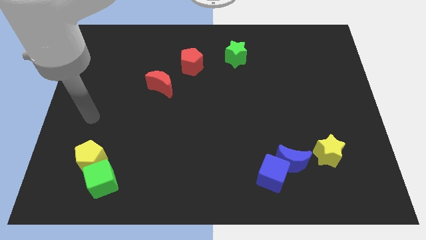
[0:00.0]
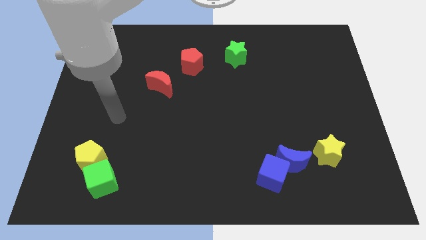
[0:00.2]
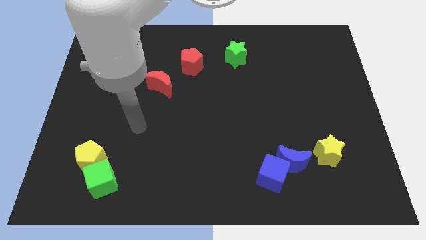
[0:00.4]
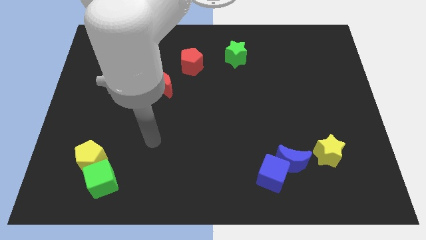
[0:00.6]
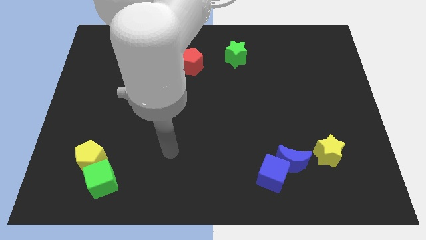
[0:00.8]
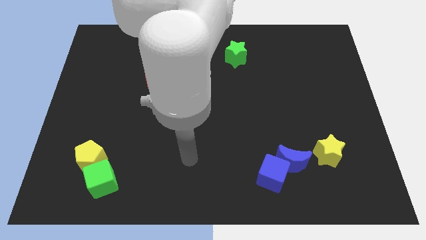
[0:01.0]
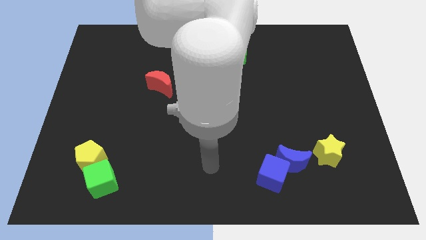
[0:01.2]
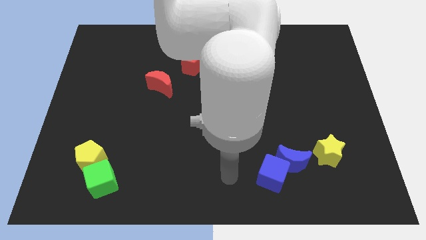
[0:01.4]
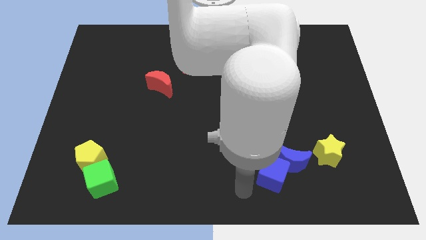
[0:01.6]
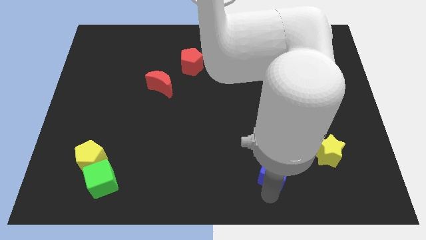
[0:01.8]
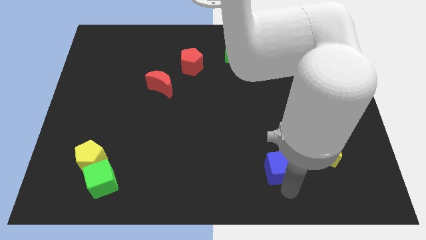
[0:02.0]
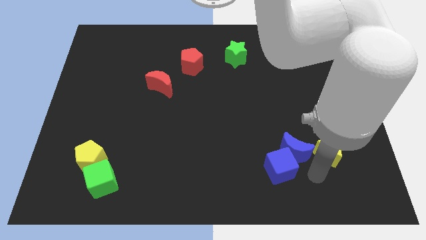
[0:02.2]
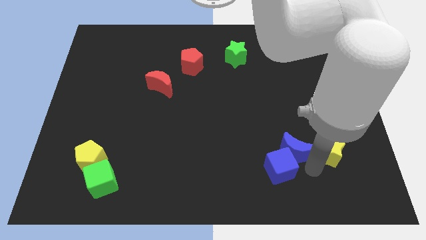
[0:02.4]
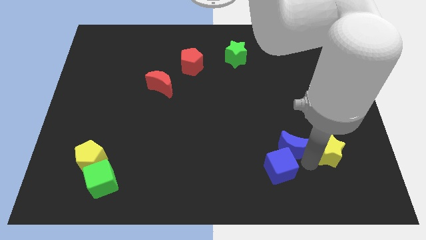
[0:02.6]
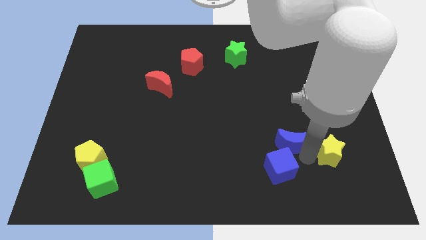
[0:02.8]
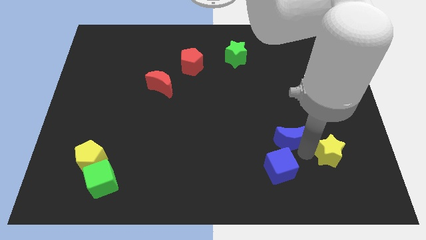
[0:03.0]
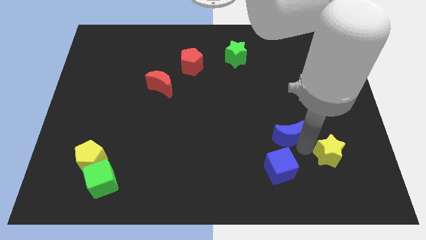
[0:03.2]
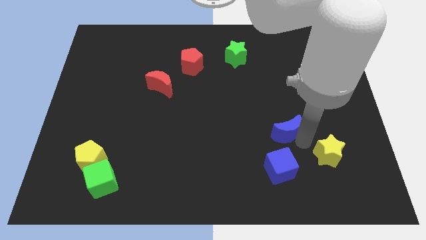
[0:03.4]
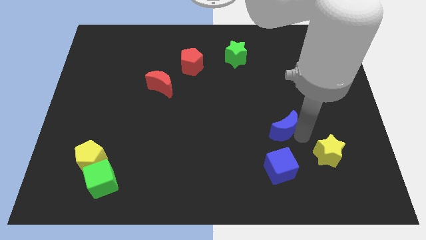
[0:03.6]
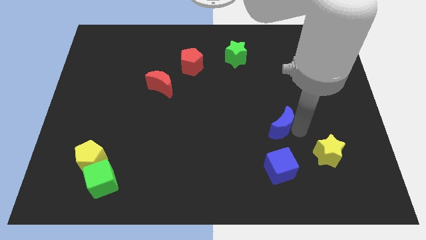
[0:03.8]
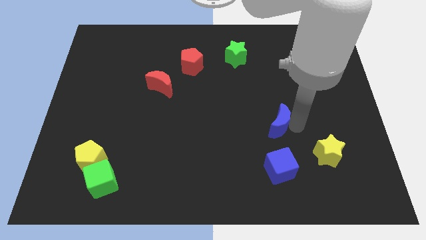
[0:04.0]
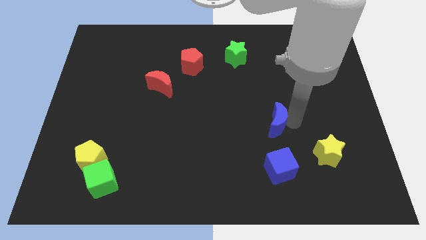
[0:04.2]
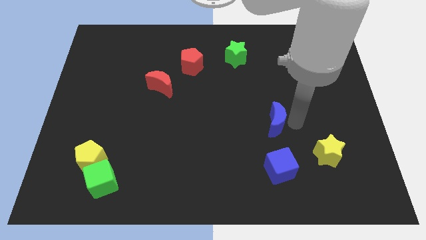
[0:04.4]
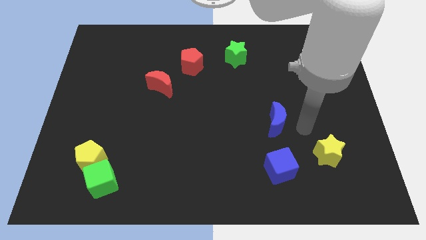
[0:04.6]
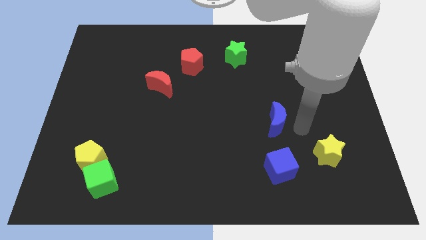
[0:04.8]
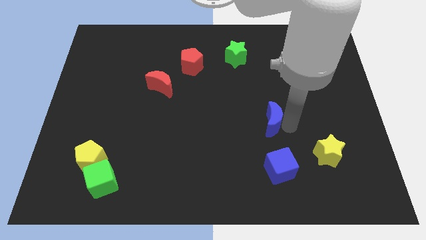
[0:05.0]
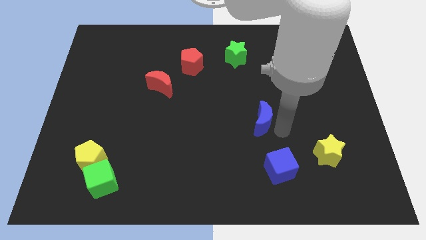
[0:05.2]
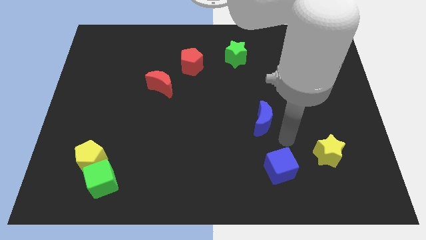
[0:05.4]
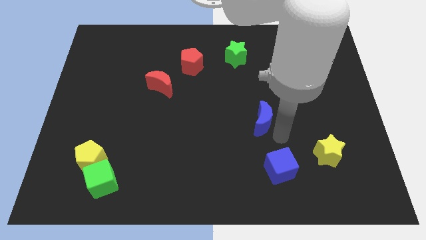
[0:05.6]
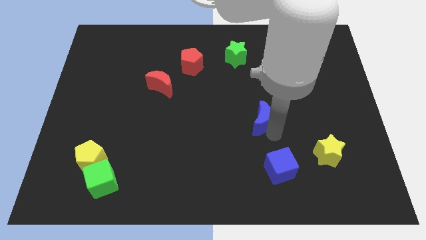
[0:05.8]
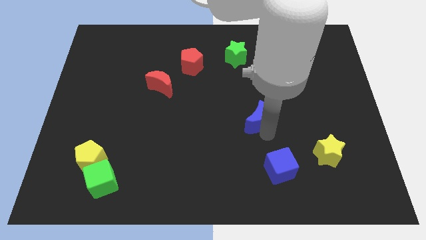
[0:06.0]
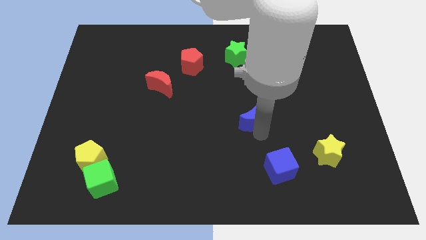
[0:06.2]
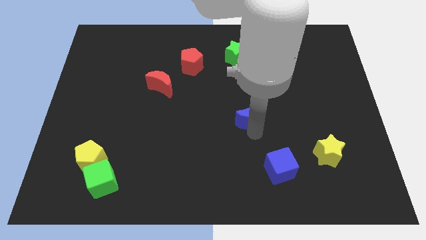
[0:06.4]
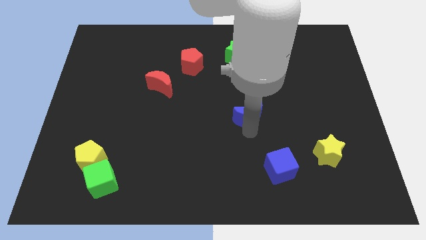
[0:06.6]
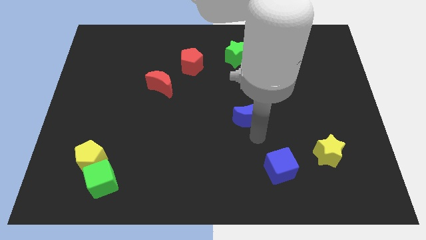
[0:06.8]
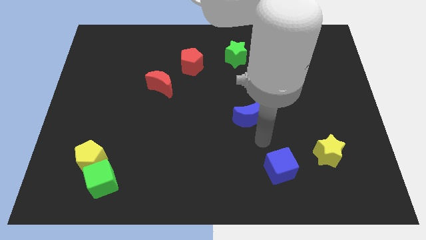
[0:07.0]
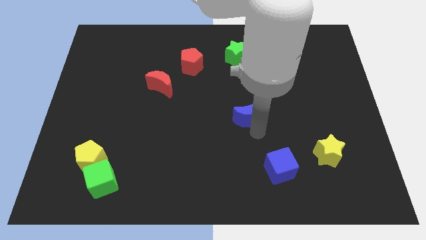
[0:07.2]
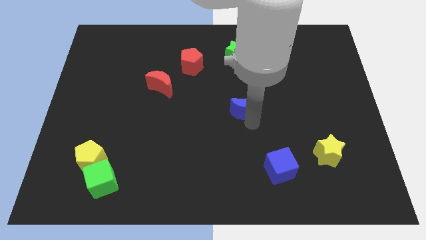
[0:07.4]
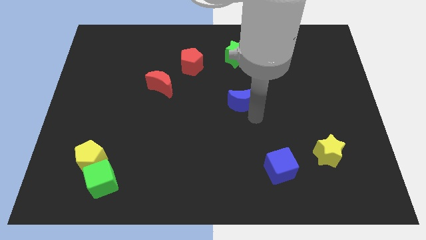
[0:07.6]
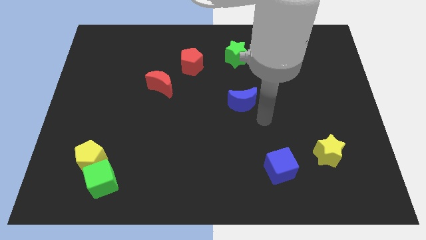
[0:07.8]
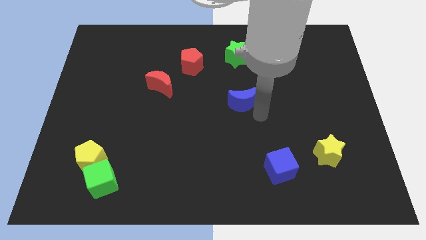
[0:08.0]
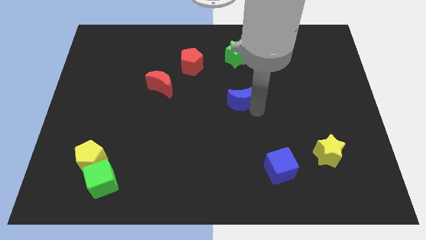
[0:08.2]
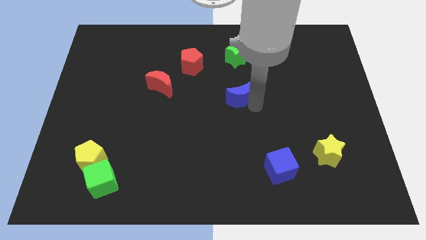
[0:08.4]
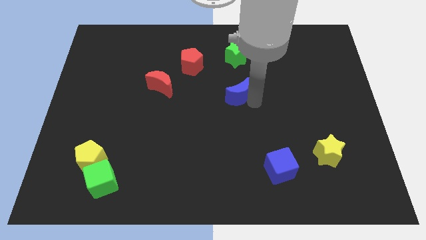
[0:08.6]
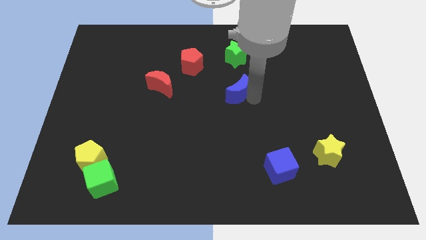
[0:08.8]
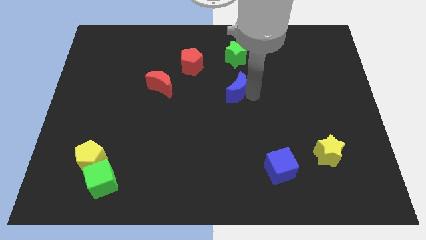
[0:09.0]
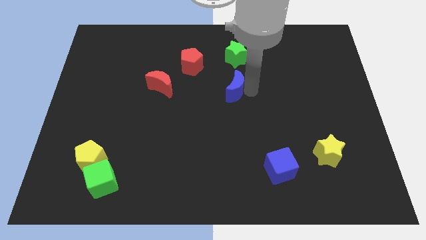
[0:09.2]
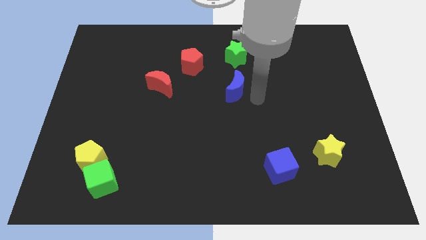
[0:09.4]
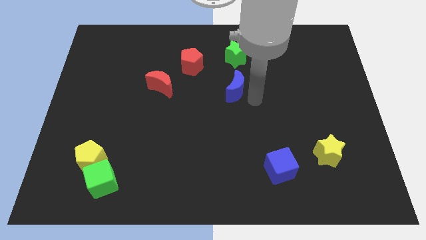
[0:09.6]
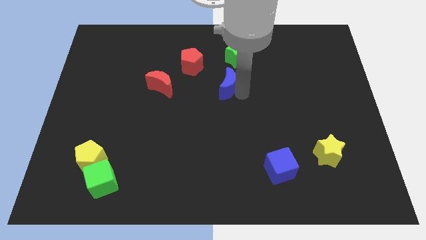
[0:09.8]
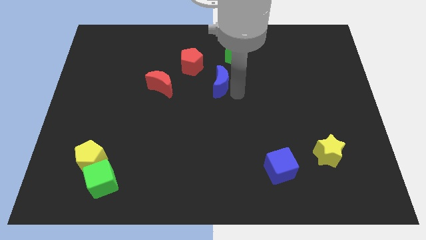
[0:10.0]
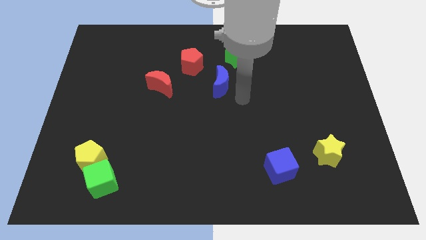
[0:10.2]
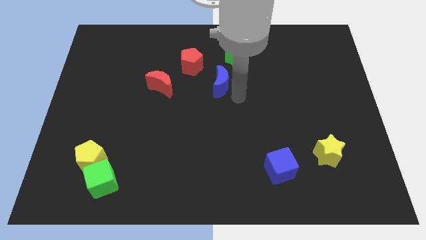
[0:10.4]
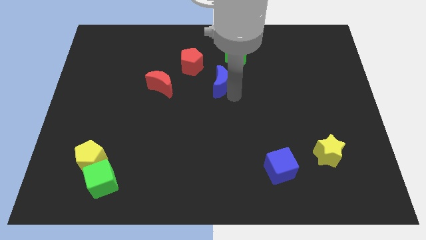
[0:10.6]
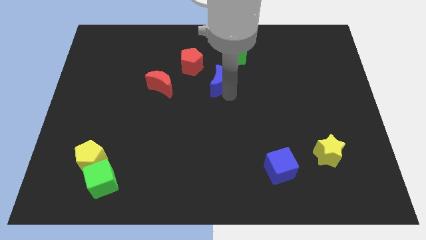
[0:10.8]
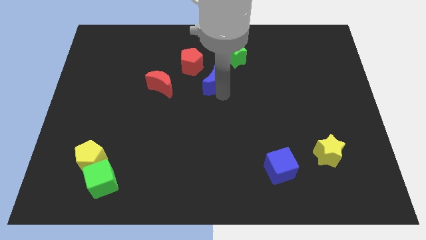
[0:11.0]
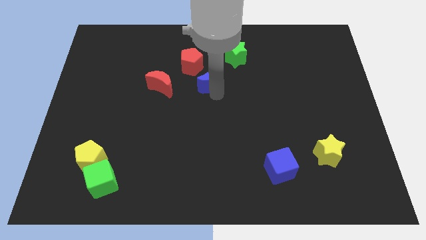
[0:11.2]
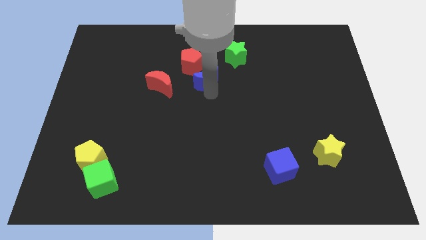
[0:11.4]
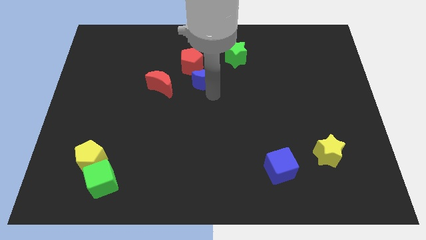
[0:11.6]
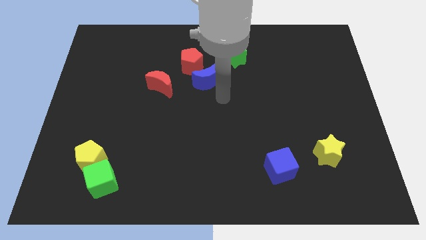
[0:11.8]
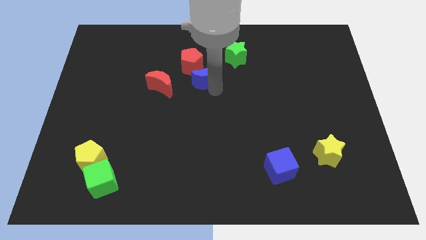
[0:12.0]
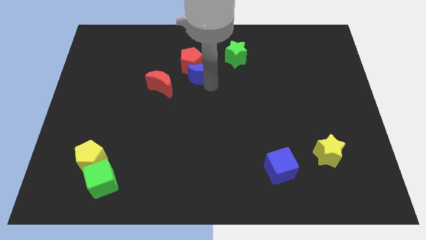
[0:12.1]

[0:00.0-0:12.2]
move the blue moon to the red pentagon

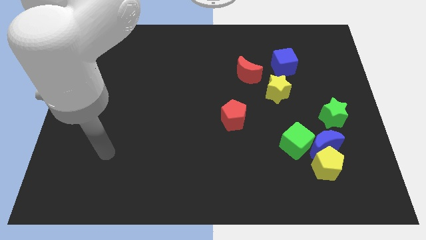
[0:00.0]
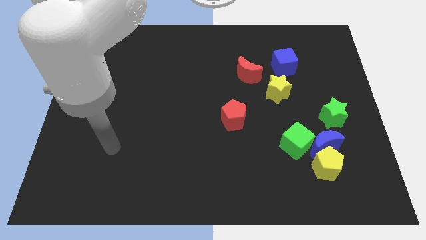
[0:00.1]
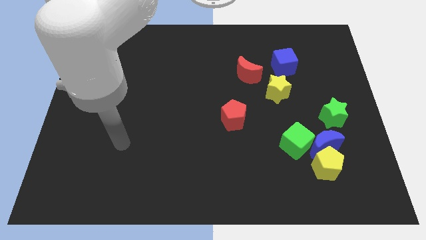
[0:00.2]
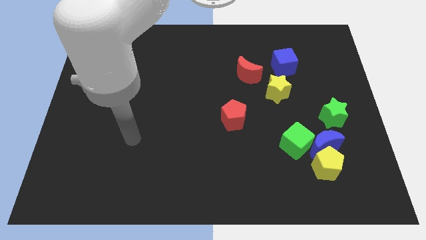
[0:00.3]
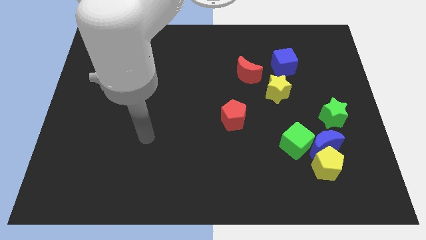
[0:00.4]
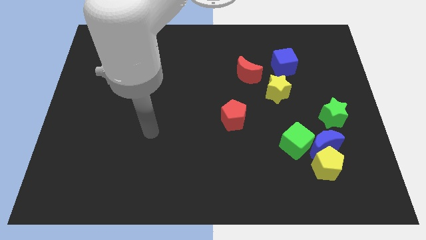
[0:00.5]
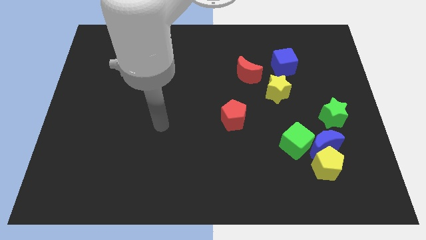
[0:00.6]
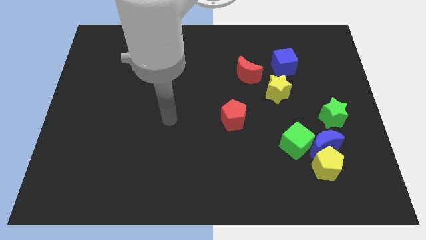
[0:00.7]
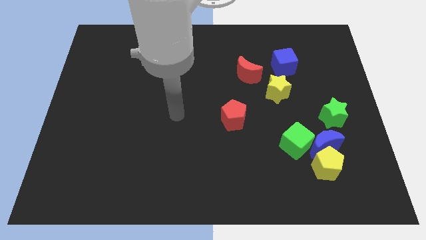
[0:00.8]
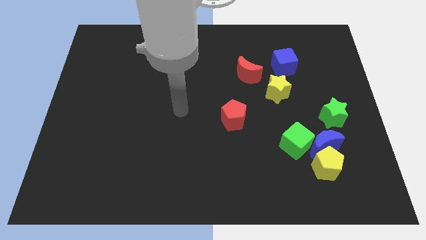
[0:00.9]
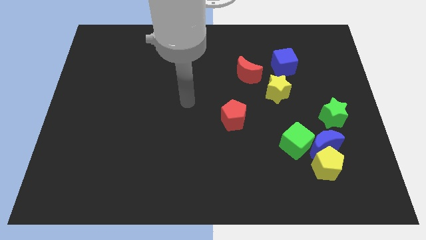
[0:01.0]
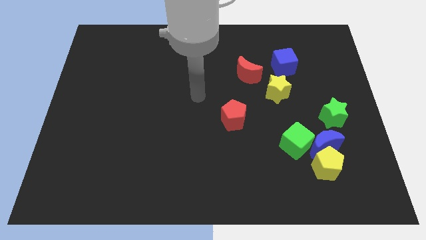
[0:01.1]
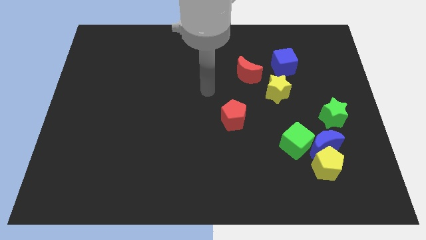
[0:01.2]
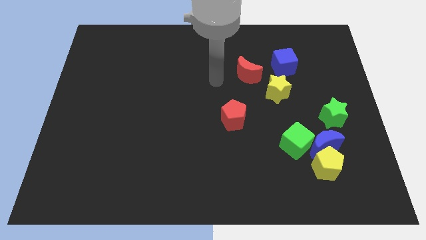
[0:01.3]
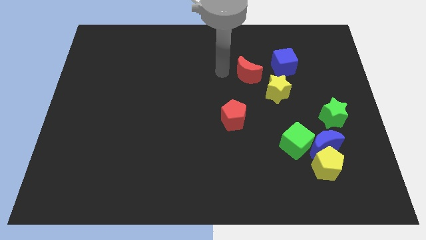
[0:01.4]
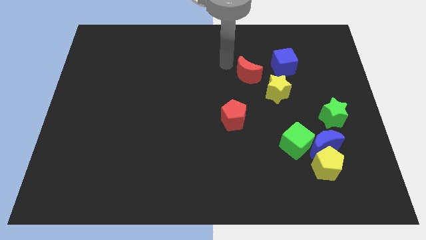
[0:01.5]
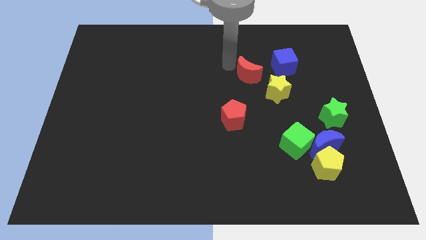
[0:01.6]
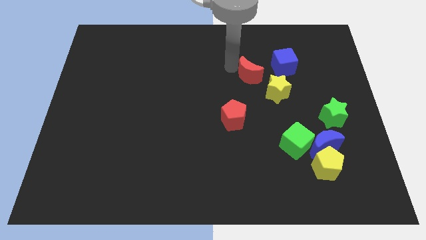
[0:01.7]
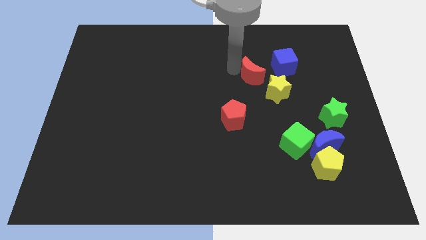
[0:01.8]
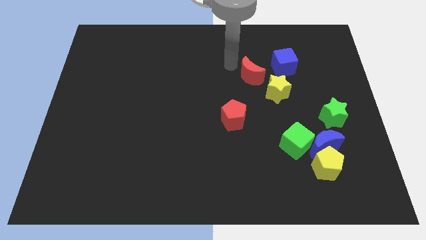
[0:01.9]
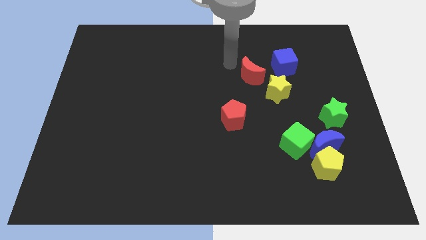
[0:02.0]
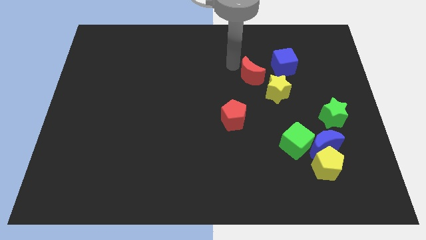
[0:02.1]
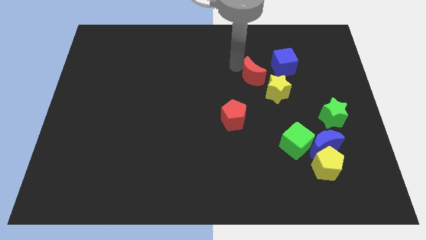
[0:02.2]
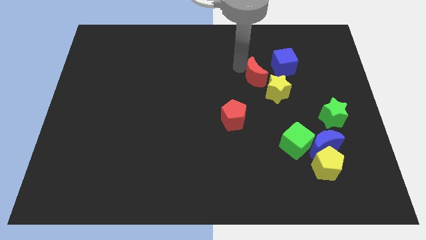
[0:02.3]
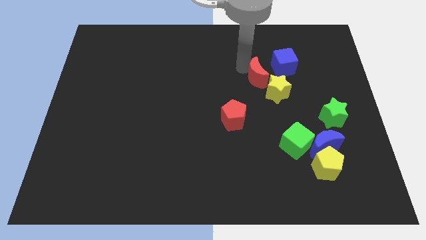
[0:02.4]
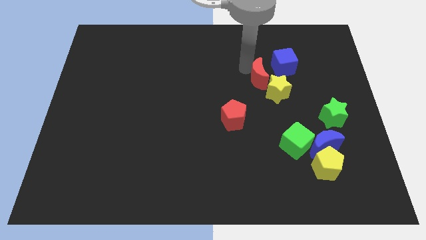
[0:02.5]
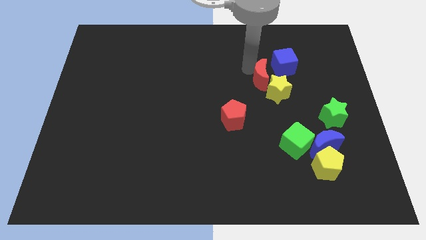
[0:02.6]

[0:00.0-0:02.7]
put the red moon close to the yellow star
